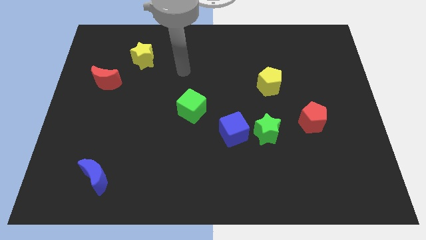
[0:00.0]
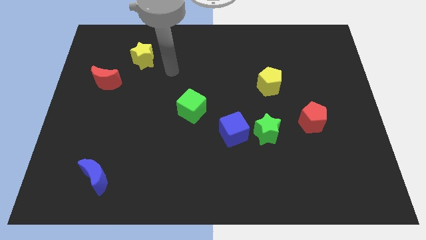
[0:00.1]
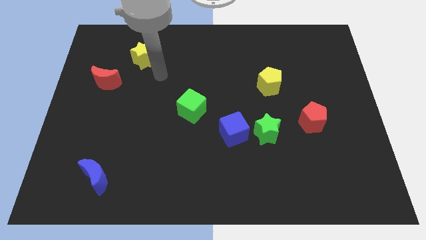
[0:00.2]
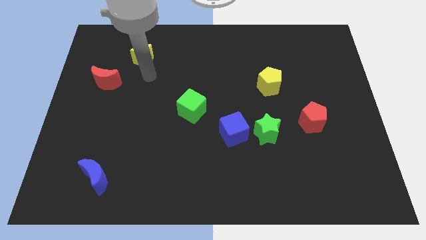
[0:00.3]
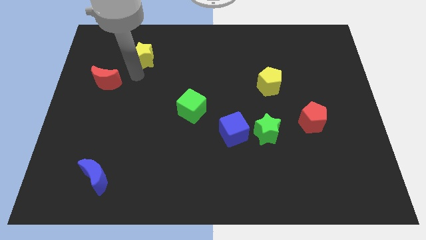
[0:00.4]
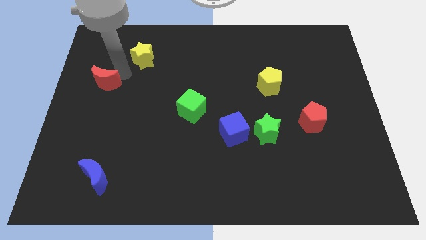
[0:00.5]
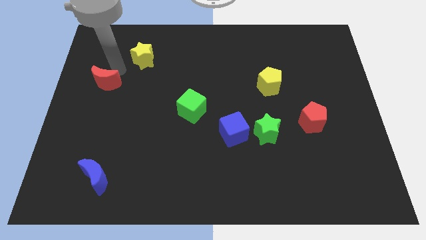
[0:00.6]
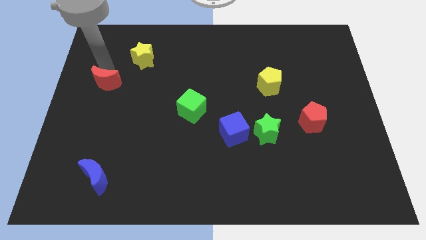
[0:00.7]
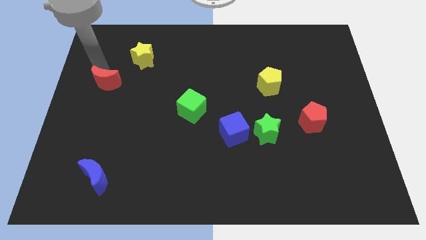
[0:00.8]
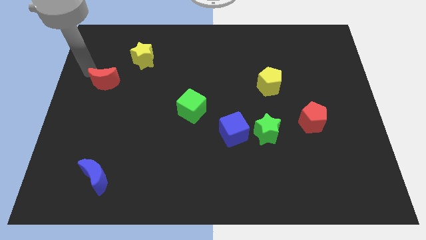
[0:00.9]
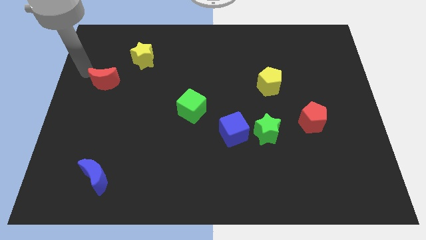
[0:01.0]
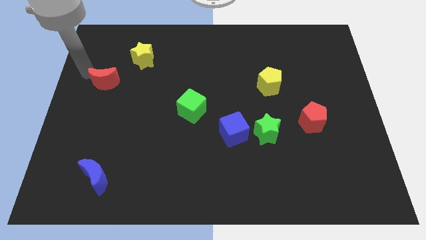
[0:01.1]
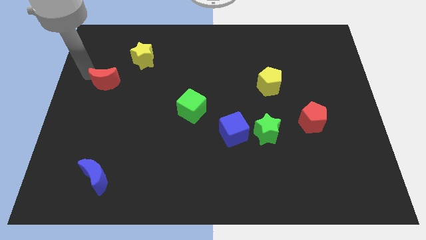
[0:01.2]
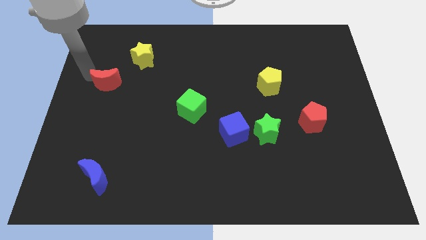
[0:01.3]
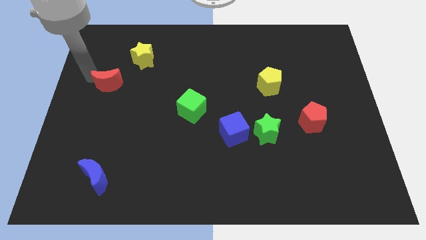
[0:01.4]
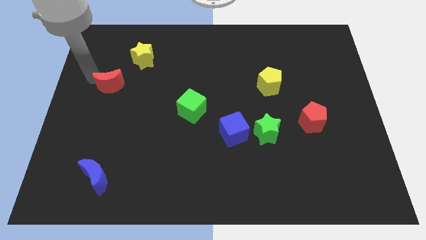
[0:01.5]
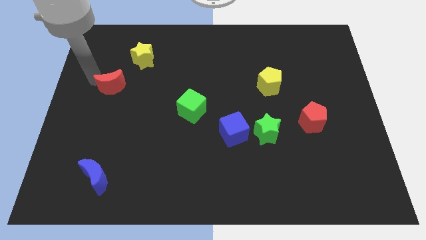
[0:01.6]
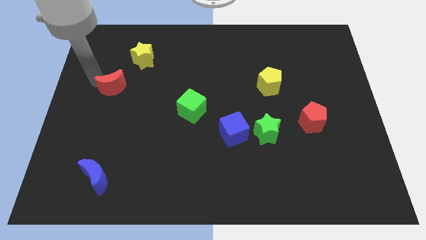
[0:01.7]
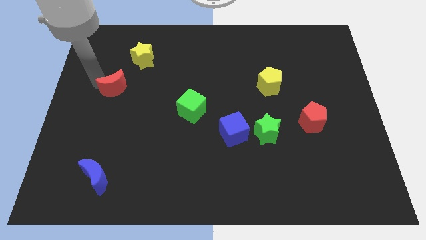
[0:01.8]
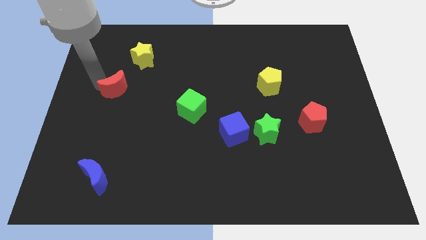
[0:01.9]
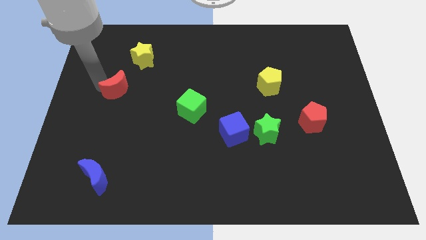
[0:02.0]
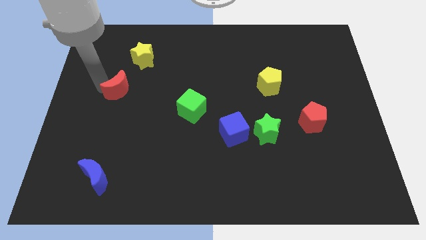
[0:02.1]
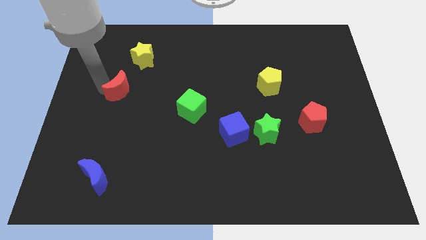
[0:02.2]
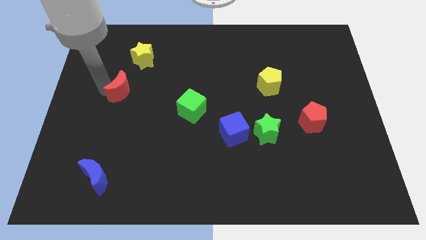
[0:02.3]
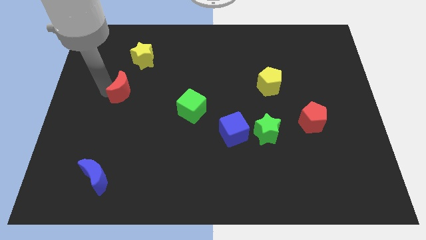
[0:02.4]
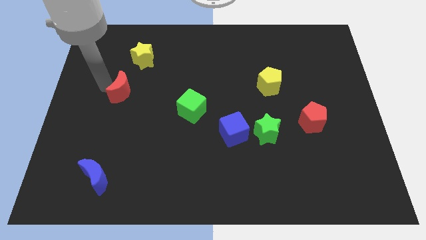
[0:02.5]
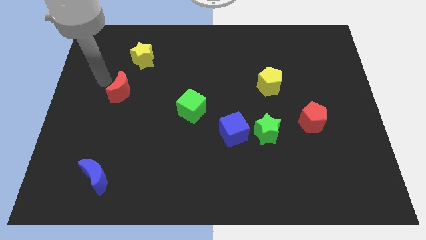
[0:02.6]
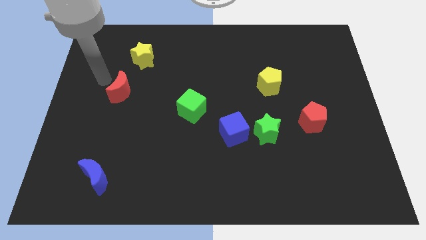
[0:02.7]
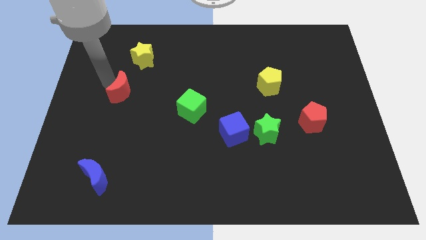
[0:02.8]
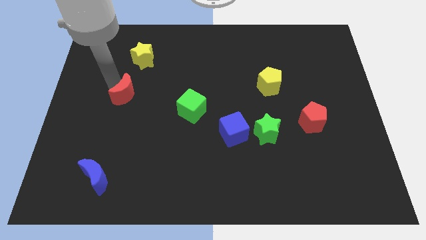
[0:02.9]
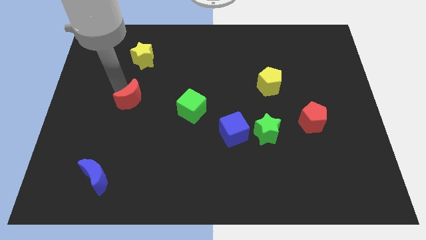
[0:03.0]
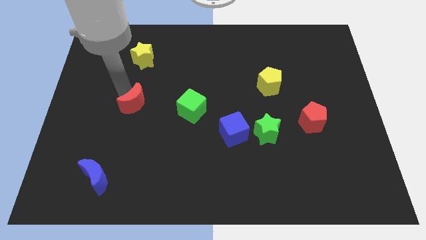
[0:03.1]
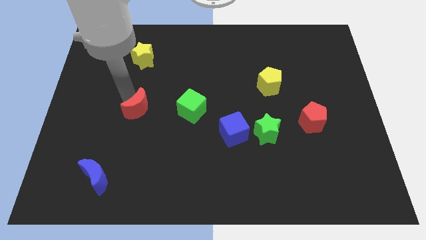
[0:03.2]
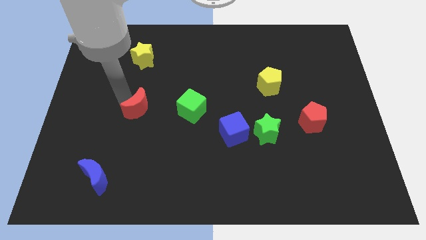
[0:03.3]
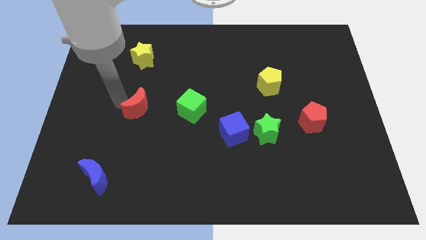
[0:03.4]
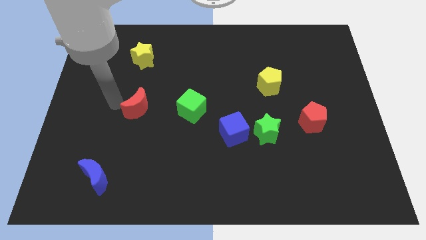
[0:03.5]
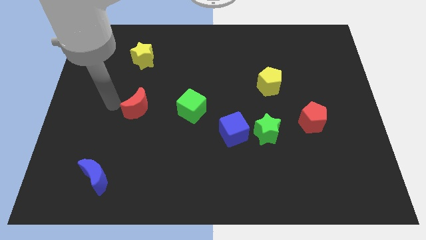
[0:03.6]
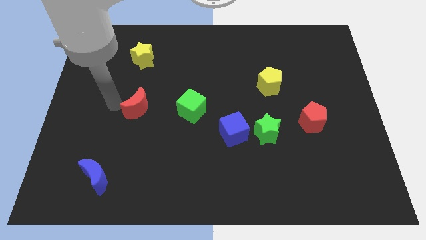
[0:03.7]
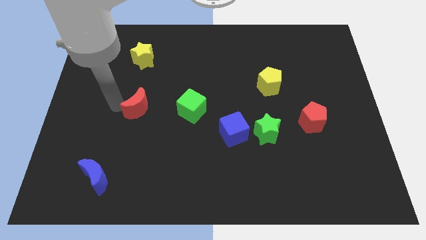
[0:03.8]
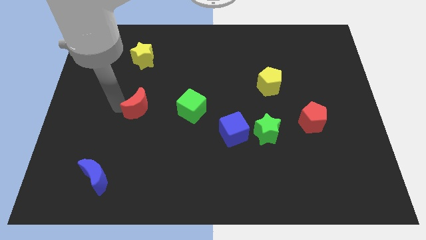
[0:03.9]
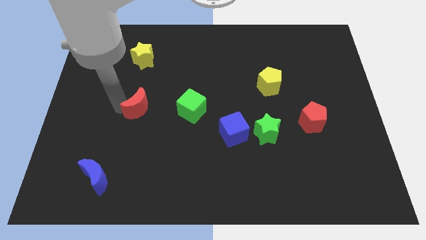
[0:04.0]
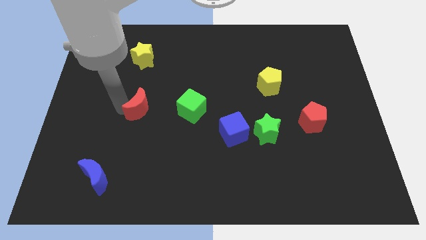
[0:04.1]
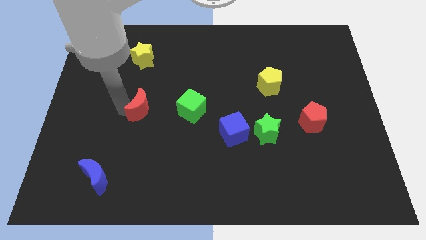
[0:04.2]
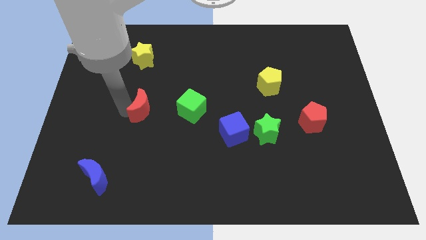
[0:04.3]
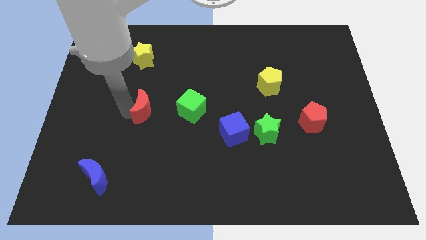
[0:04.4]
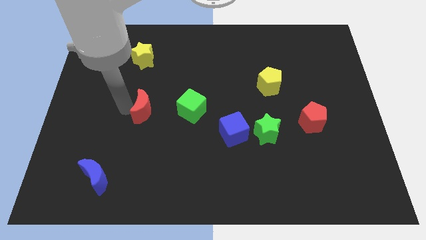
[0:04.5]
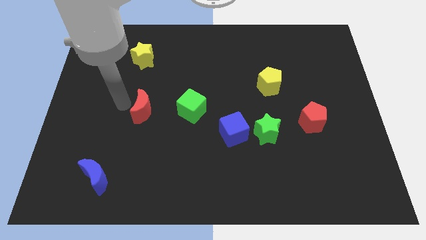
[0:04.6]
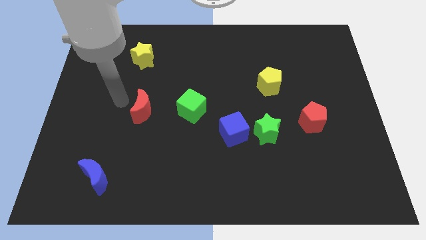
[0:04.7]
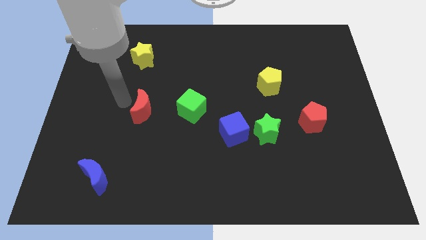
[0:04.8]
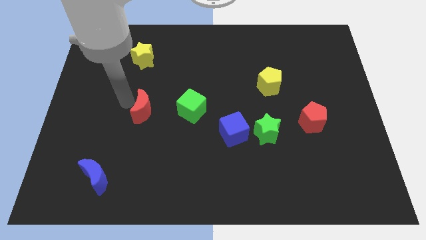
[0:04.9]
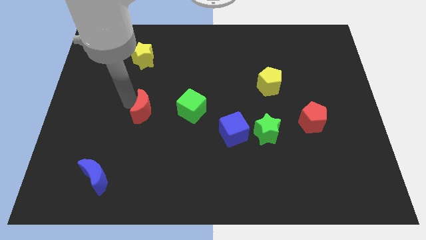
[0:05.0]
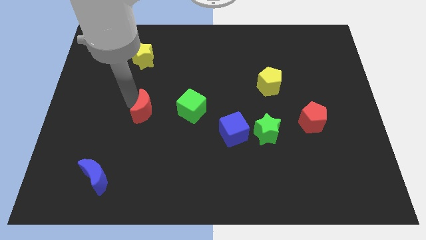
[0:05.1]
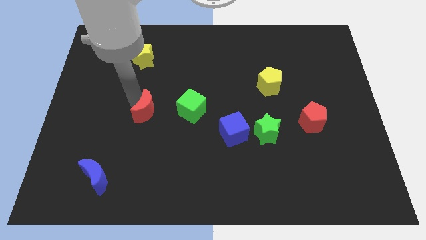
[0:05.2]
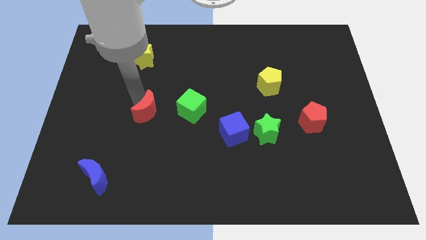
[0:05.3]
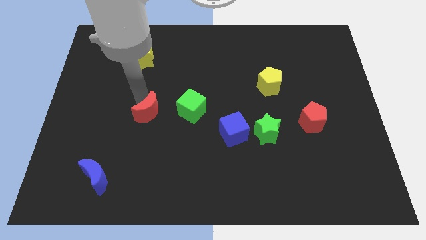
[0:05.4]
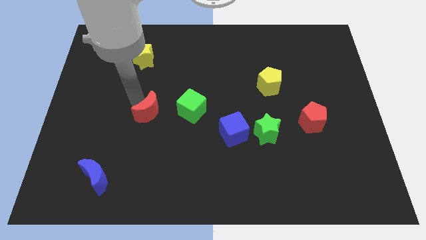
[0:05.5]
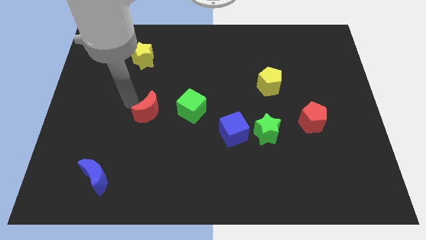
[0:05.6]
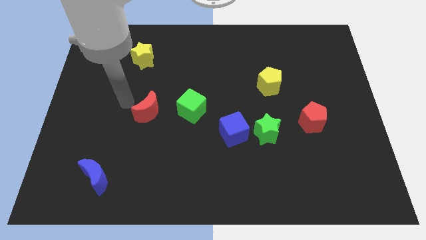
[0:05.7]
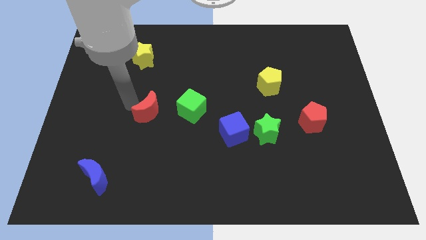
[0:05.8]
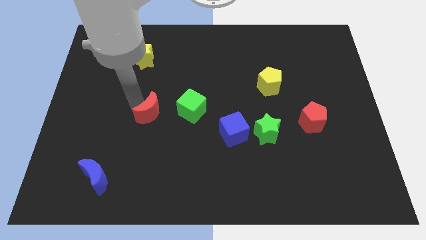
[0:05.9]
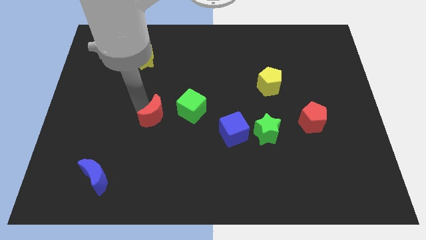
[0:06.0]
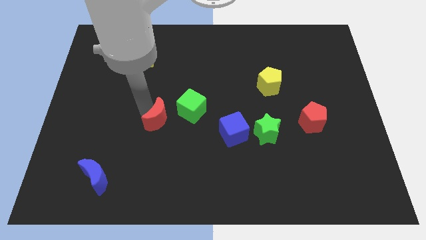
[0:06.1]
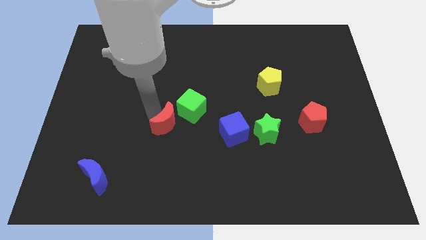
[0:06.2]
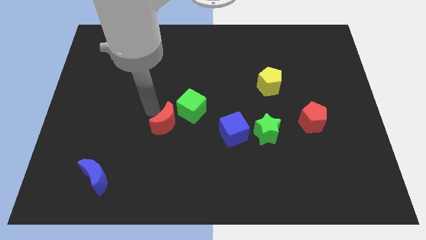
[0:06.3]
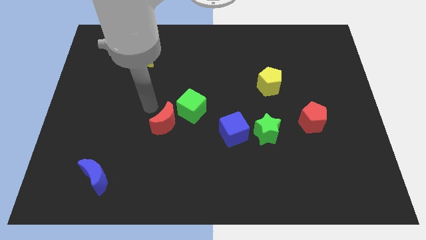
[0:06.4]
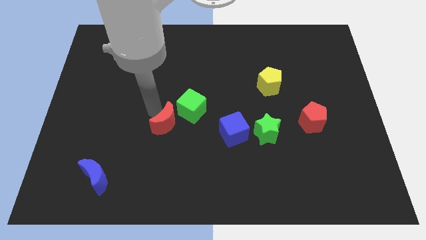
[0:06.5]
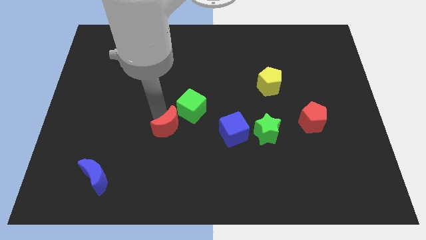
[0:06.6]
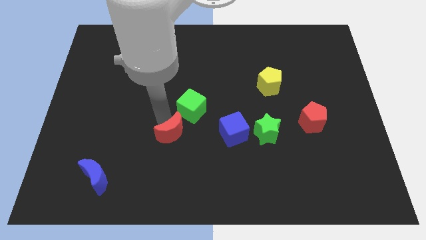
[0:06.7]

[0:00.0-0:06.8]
push the red moon to the bottom side of the green cube
